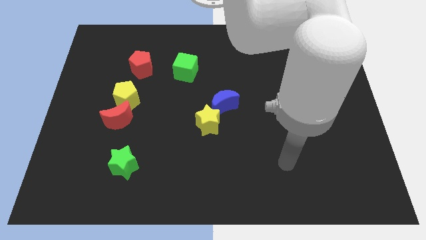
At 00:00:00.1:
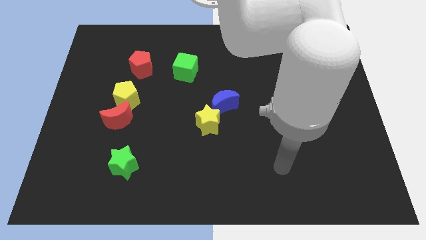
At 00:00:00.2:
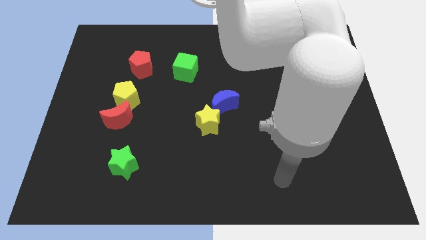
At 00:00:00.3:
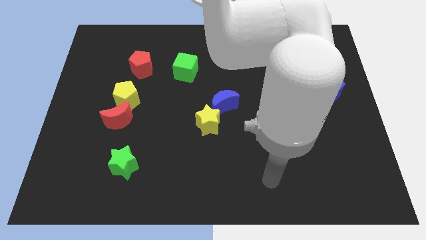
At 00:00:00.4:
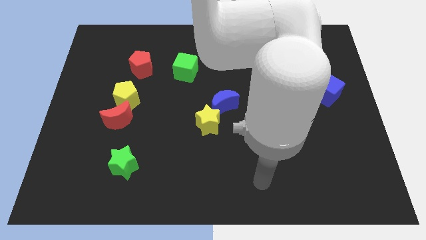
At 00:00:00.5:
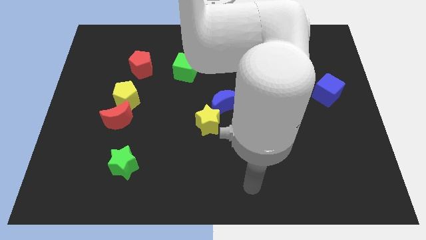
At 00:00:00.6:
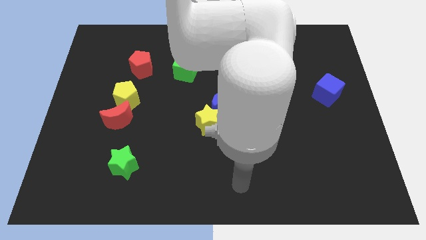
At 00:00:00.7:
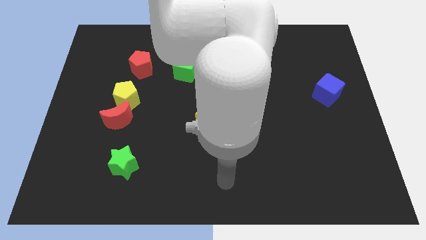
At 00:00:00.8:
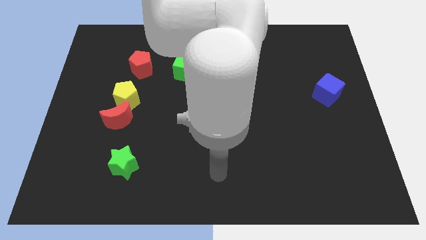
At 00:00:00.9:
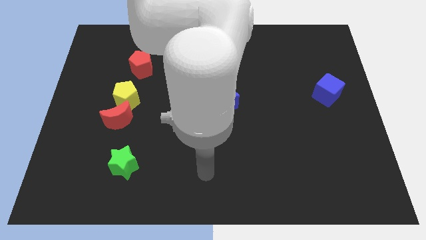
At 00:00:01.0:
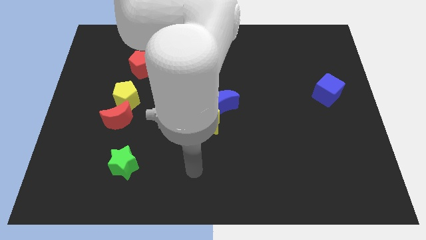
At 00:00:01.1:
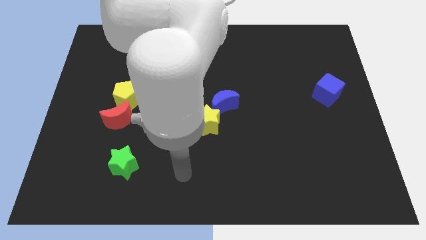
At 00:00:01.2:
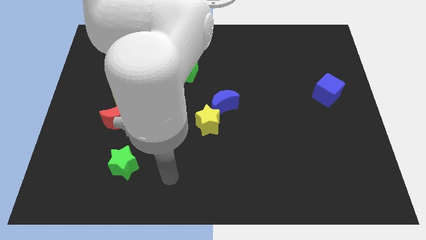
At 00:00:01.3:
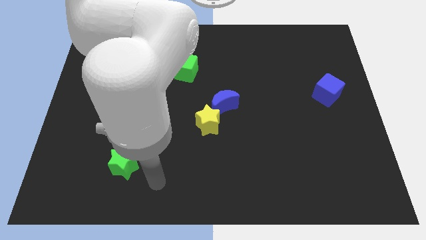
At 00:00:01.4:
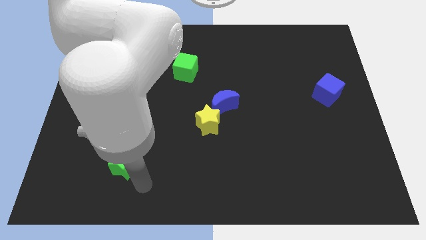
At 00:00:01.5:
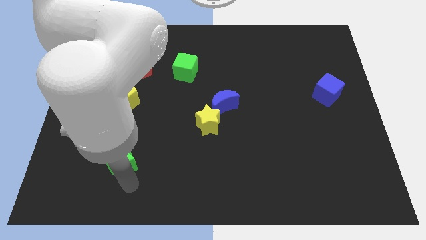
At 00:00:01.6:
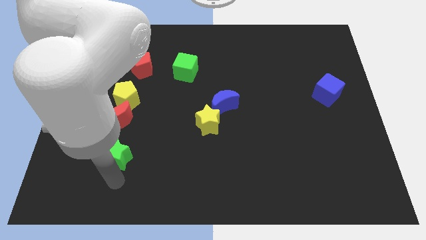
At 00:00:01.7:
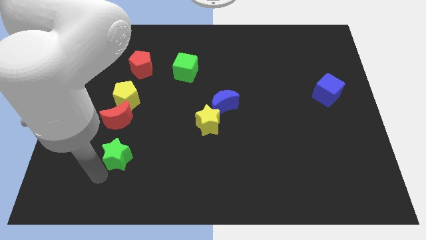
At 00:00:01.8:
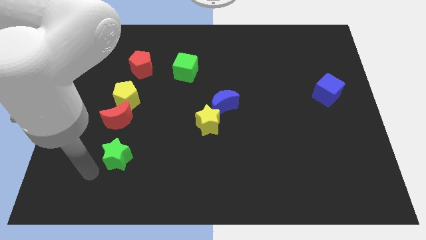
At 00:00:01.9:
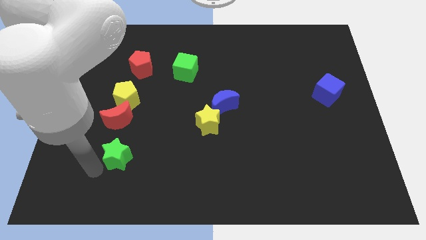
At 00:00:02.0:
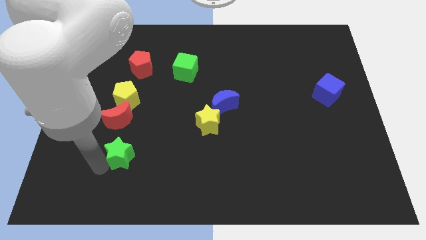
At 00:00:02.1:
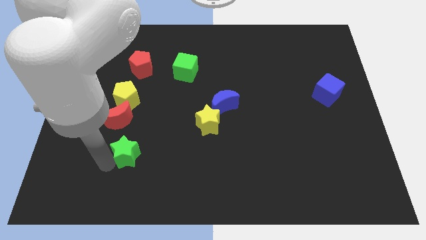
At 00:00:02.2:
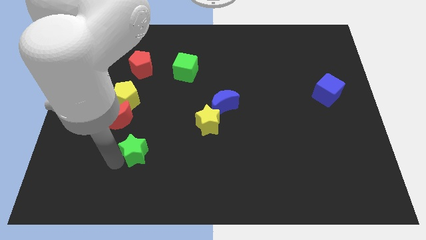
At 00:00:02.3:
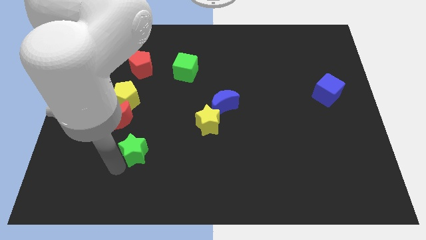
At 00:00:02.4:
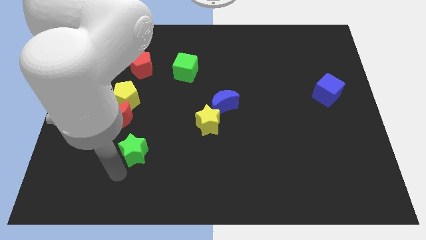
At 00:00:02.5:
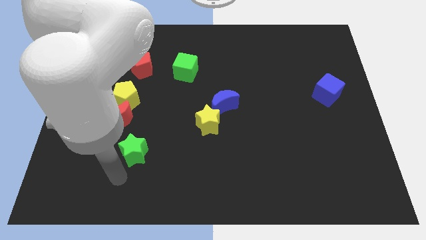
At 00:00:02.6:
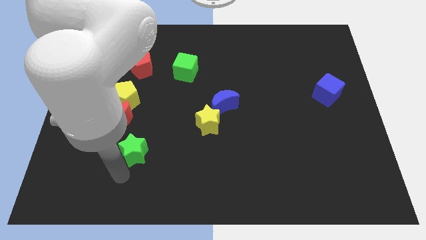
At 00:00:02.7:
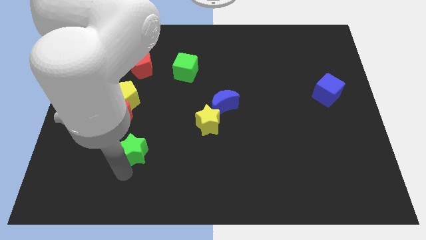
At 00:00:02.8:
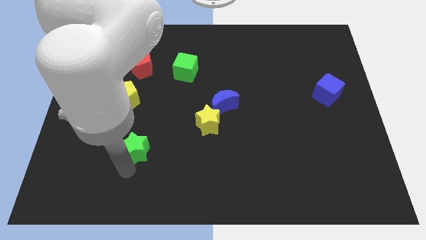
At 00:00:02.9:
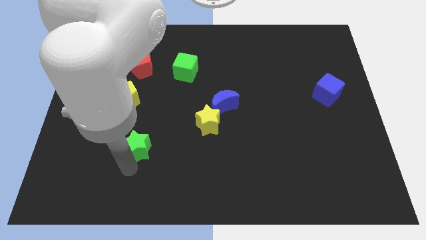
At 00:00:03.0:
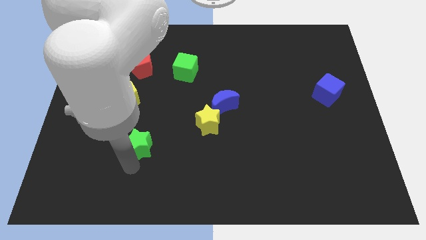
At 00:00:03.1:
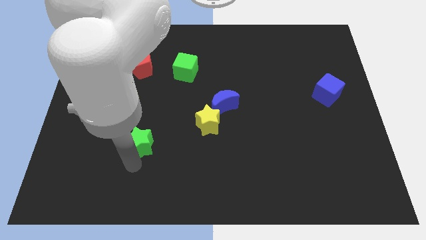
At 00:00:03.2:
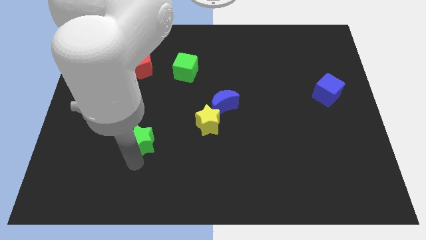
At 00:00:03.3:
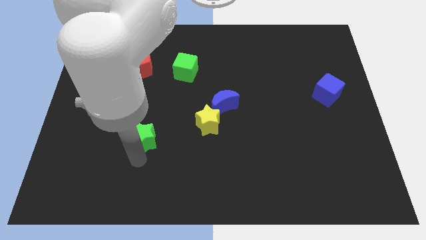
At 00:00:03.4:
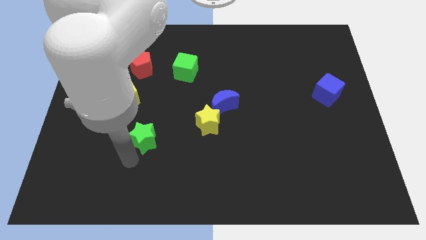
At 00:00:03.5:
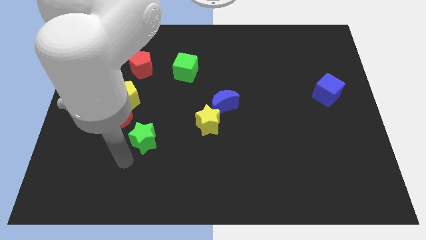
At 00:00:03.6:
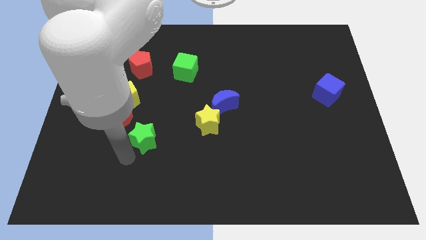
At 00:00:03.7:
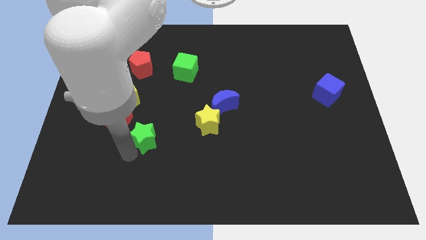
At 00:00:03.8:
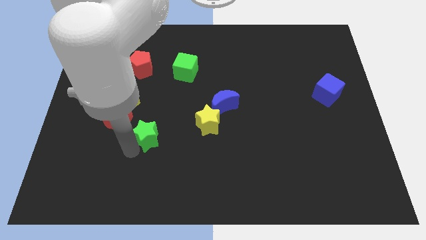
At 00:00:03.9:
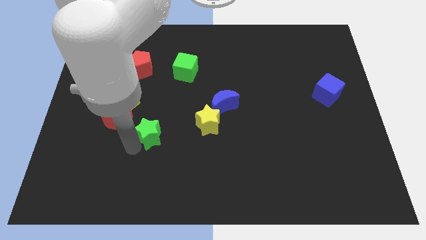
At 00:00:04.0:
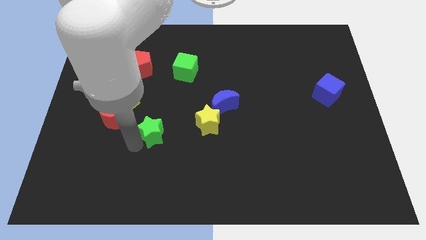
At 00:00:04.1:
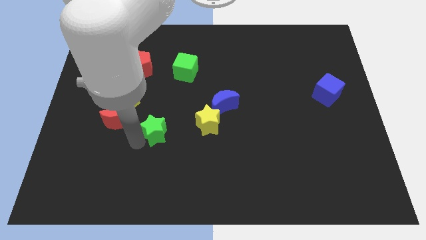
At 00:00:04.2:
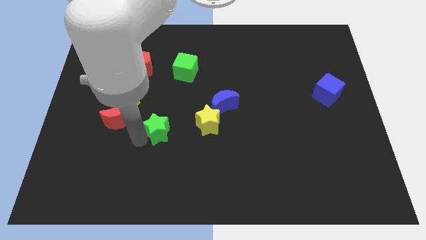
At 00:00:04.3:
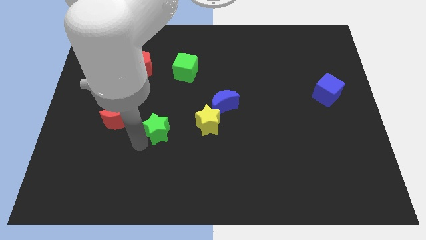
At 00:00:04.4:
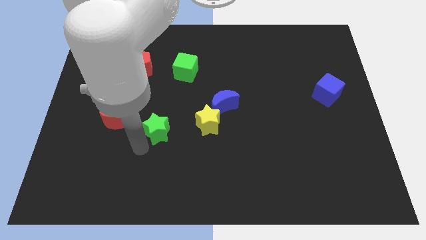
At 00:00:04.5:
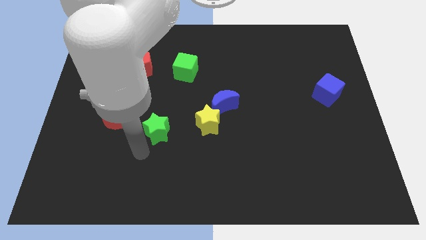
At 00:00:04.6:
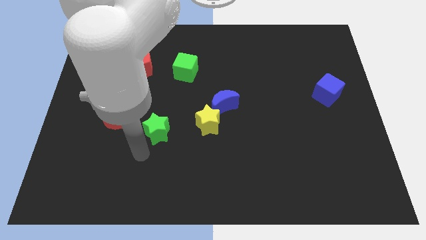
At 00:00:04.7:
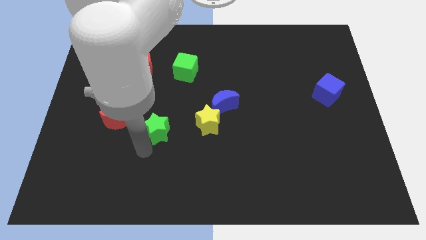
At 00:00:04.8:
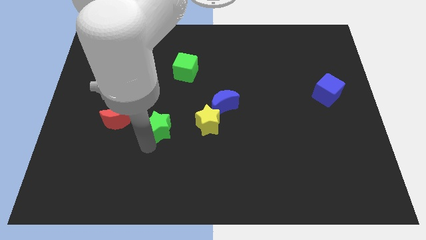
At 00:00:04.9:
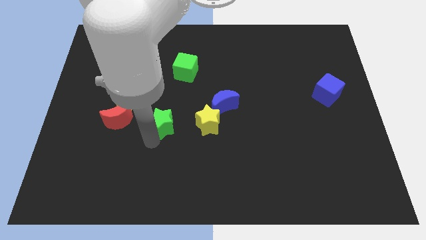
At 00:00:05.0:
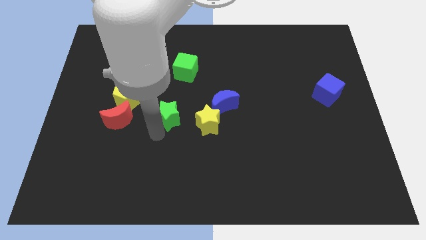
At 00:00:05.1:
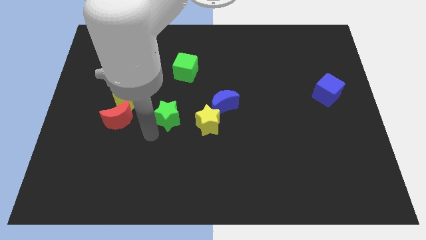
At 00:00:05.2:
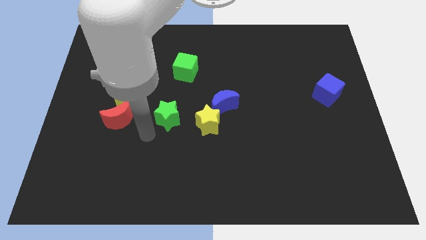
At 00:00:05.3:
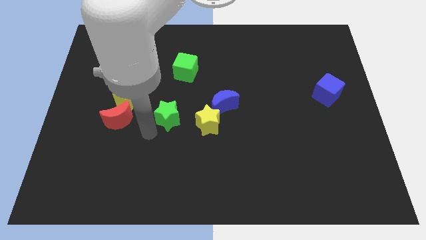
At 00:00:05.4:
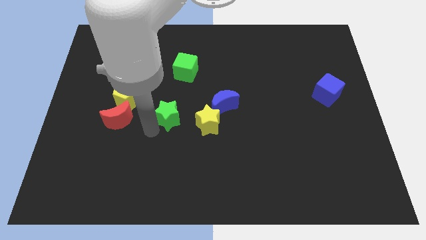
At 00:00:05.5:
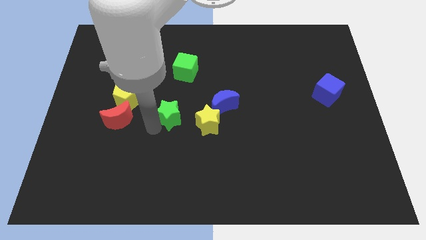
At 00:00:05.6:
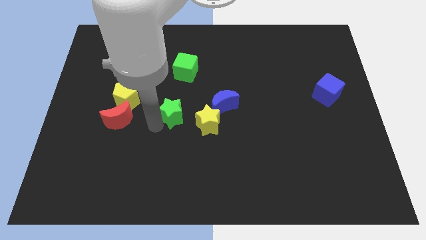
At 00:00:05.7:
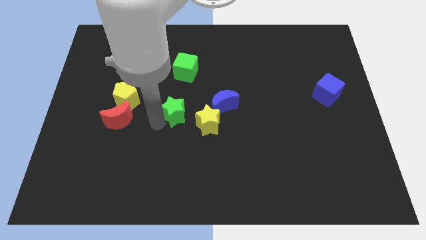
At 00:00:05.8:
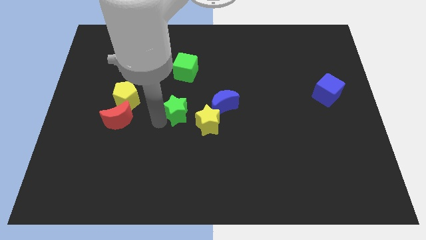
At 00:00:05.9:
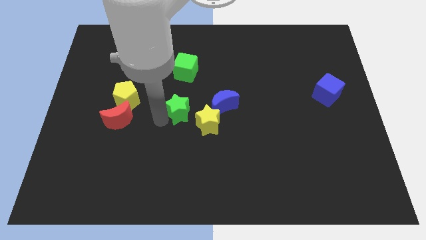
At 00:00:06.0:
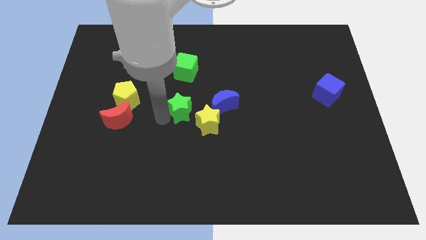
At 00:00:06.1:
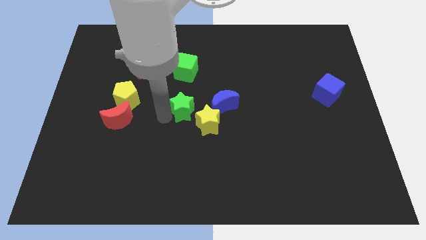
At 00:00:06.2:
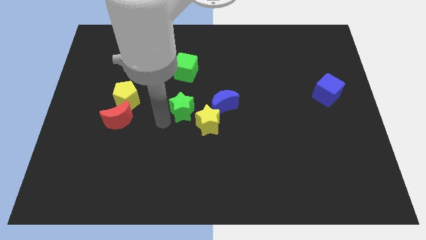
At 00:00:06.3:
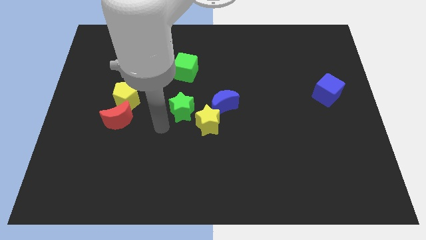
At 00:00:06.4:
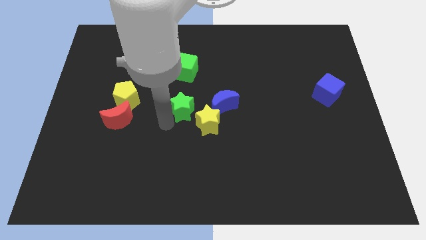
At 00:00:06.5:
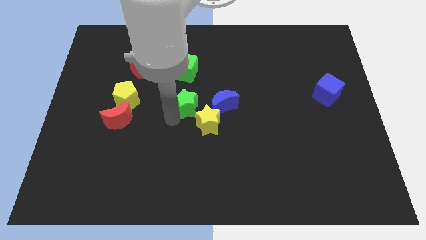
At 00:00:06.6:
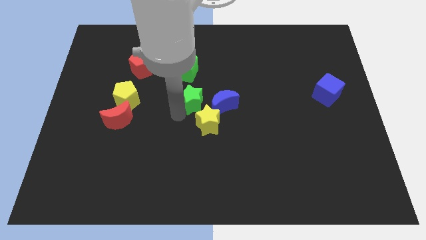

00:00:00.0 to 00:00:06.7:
slide the green star up and then right

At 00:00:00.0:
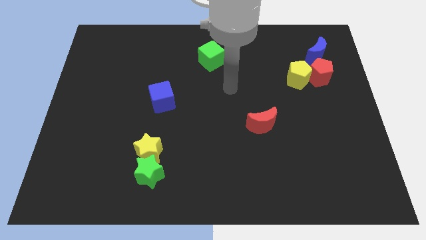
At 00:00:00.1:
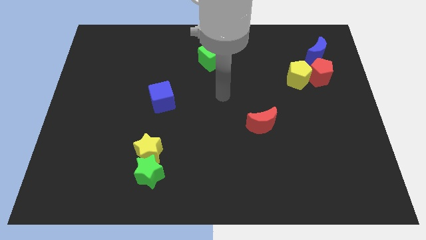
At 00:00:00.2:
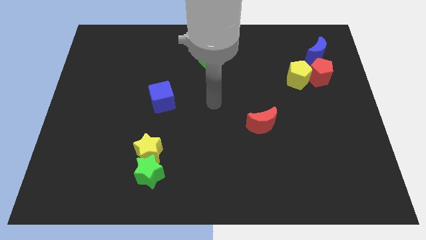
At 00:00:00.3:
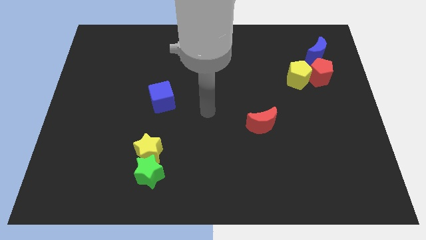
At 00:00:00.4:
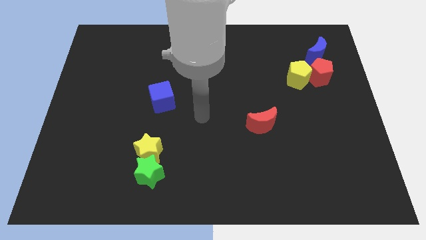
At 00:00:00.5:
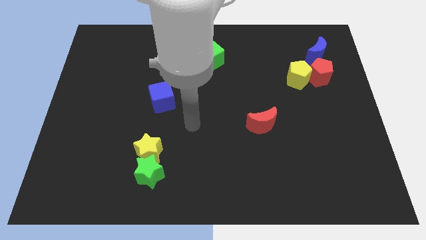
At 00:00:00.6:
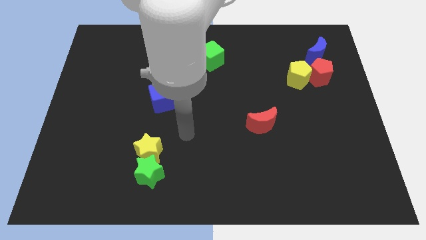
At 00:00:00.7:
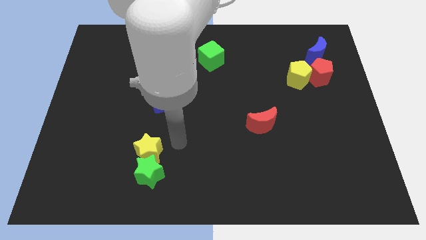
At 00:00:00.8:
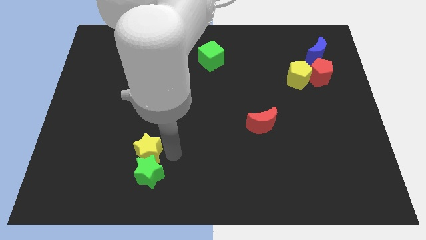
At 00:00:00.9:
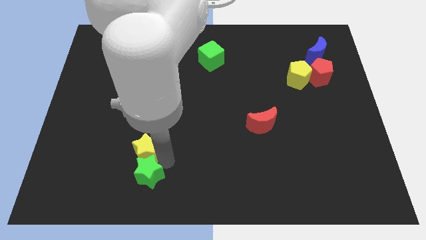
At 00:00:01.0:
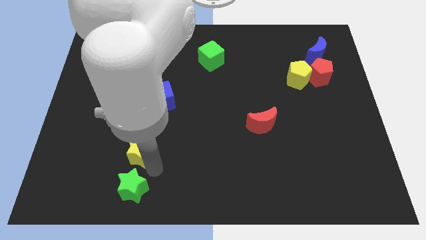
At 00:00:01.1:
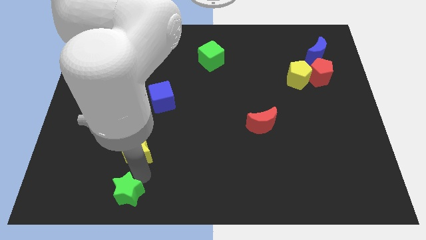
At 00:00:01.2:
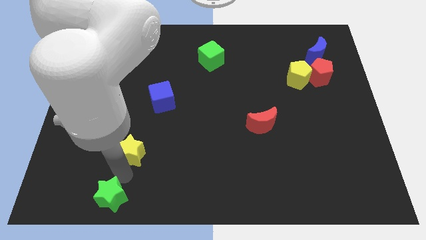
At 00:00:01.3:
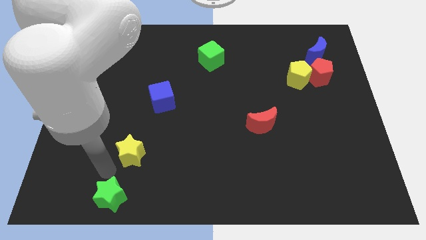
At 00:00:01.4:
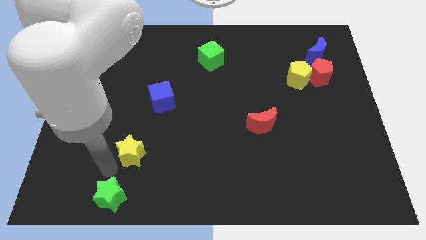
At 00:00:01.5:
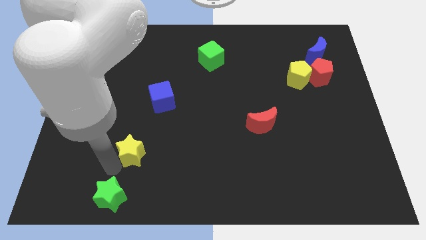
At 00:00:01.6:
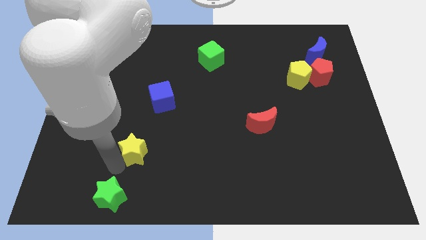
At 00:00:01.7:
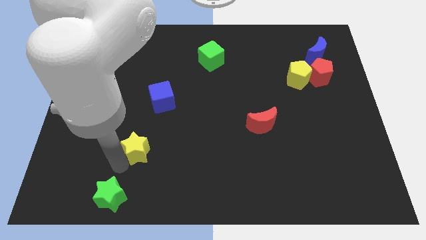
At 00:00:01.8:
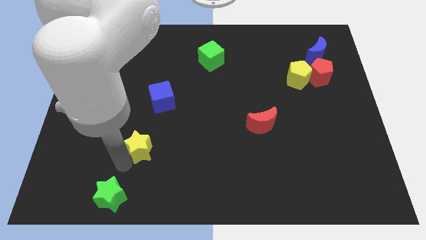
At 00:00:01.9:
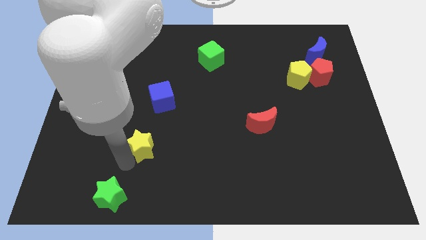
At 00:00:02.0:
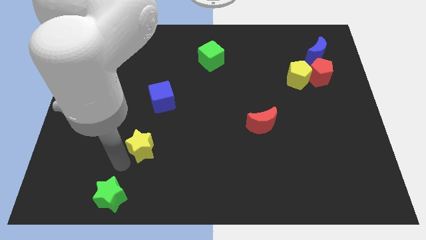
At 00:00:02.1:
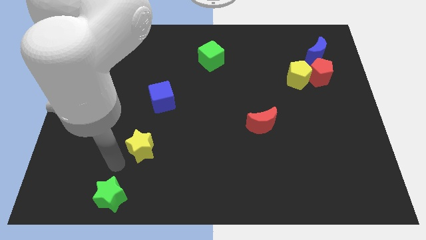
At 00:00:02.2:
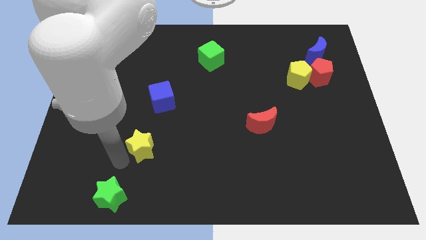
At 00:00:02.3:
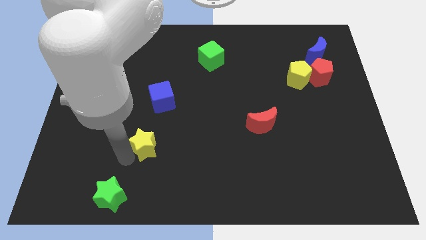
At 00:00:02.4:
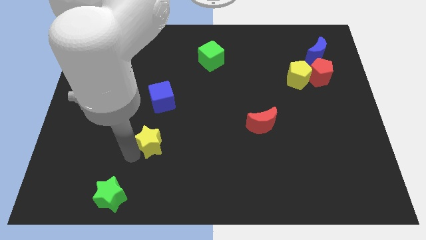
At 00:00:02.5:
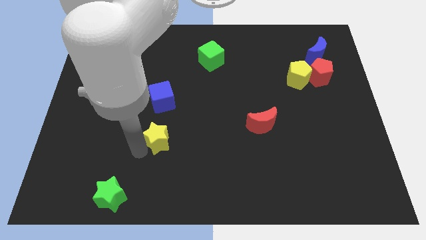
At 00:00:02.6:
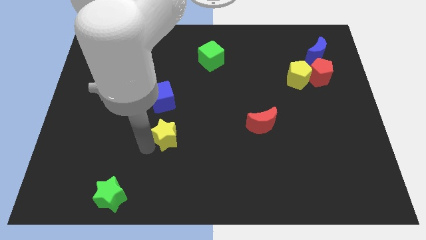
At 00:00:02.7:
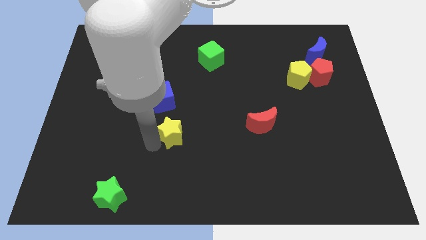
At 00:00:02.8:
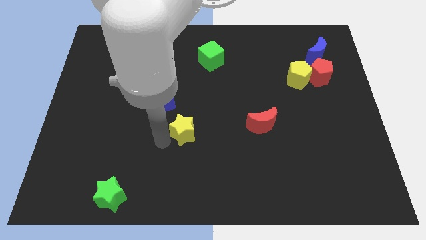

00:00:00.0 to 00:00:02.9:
move the yellow star diagonally up and right a bit
